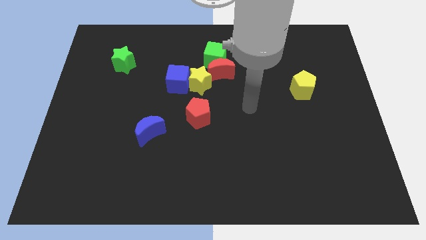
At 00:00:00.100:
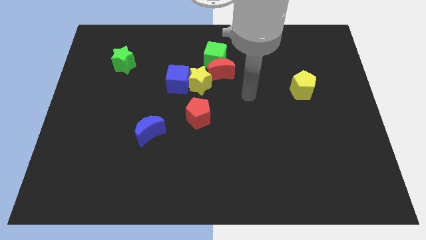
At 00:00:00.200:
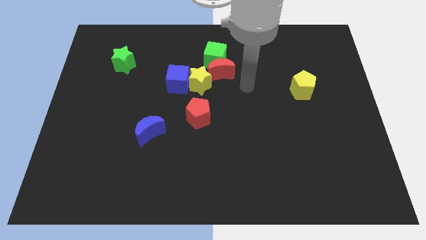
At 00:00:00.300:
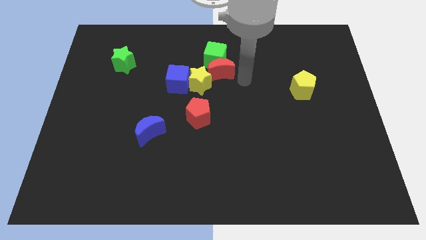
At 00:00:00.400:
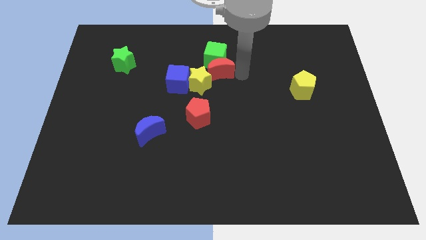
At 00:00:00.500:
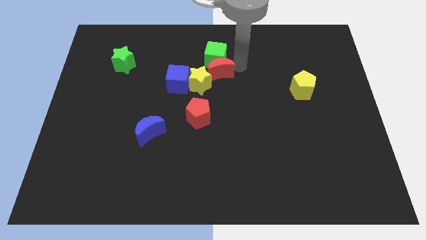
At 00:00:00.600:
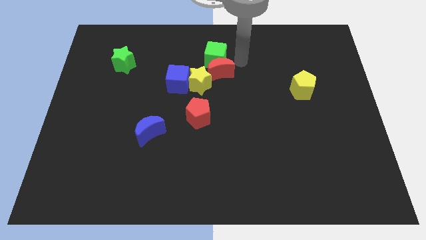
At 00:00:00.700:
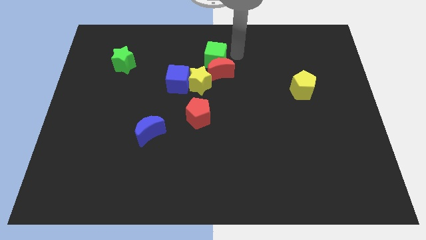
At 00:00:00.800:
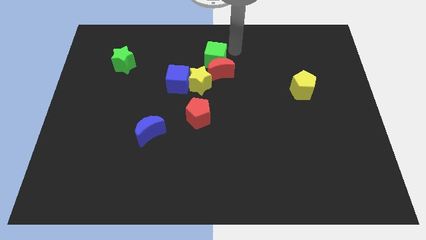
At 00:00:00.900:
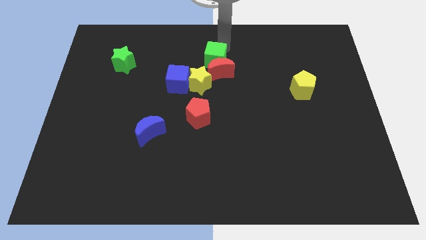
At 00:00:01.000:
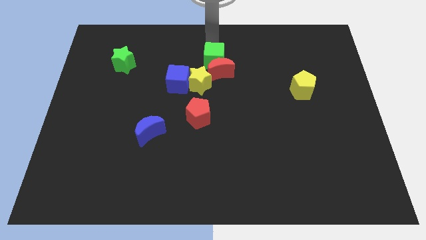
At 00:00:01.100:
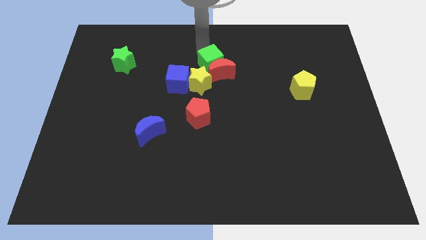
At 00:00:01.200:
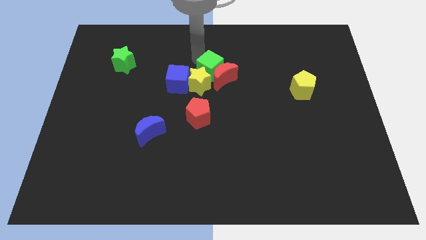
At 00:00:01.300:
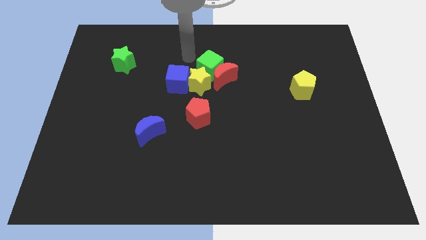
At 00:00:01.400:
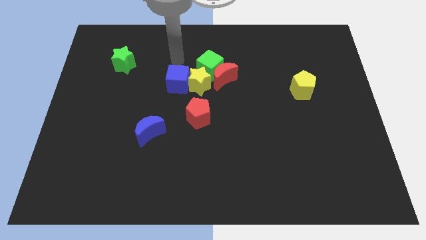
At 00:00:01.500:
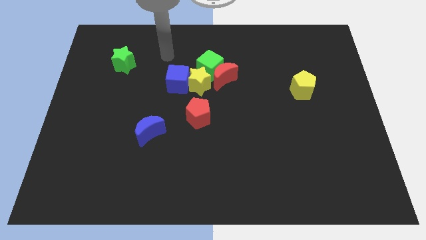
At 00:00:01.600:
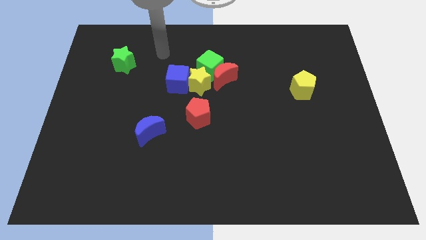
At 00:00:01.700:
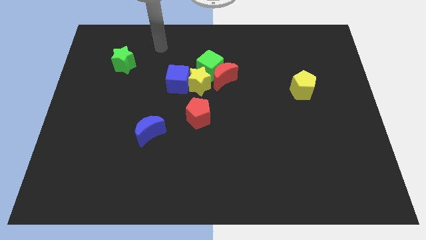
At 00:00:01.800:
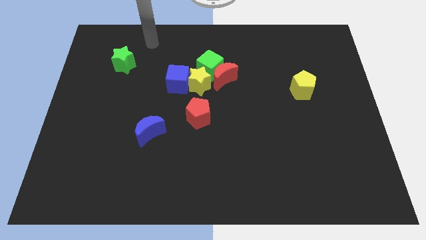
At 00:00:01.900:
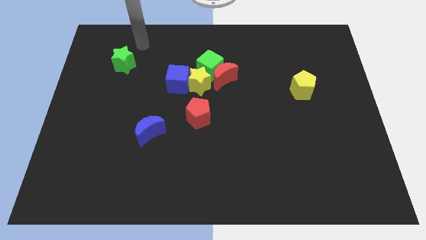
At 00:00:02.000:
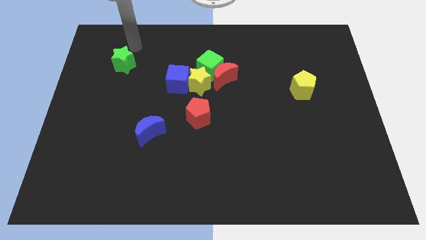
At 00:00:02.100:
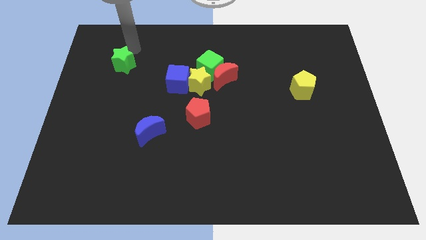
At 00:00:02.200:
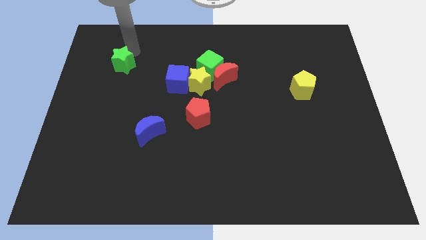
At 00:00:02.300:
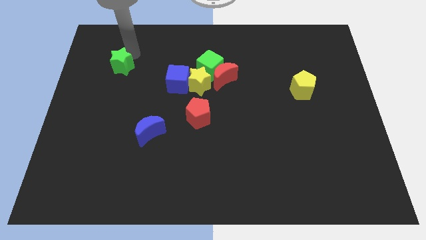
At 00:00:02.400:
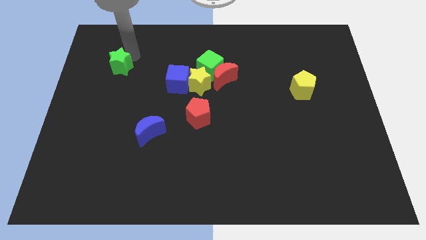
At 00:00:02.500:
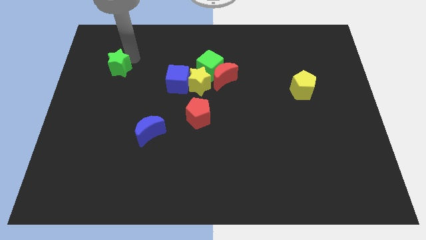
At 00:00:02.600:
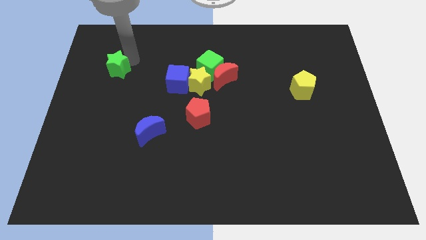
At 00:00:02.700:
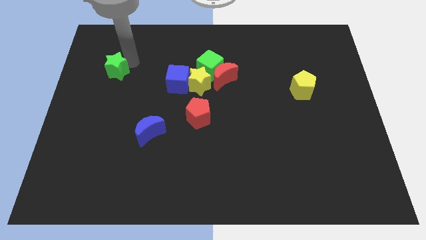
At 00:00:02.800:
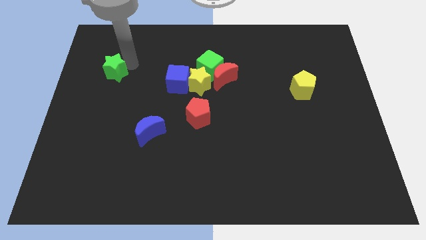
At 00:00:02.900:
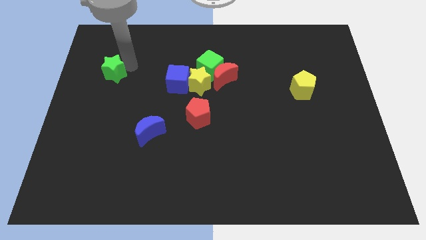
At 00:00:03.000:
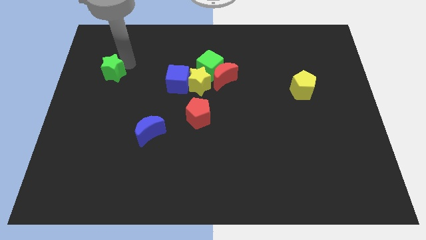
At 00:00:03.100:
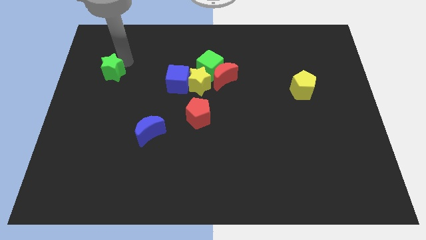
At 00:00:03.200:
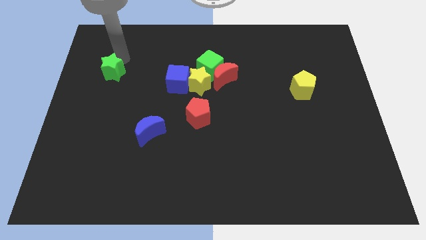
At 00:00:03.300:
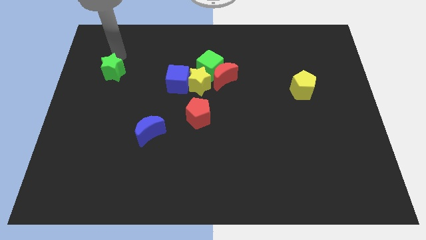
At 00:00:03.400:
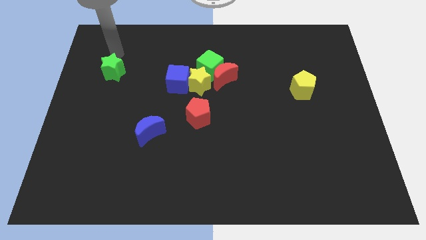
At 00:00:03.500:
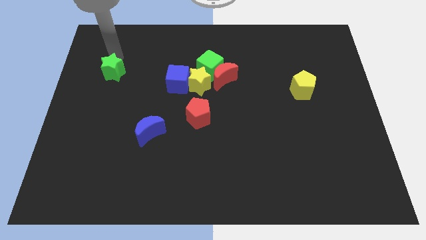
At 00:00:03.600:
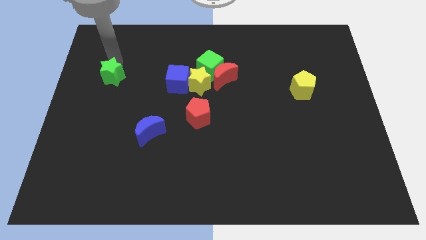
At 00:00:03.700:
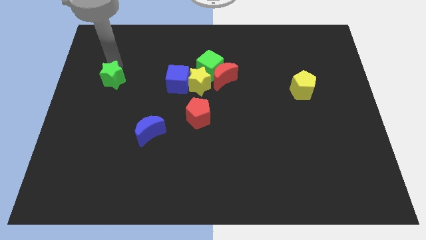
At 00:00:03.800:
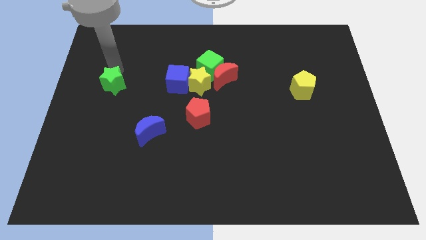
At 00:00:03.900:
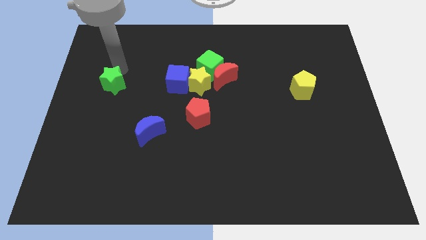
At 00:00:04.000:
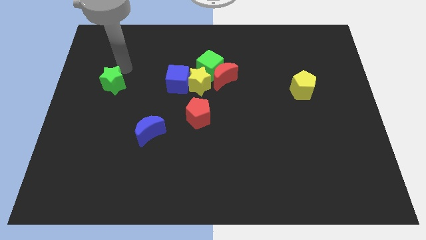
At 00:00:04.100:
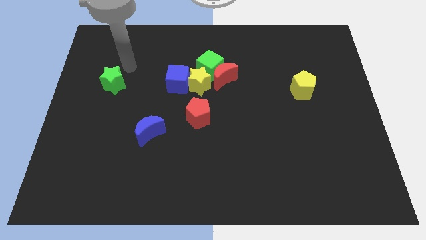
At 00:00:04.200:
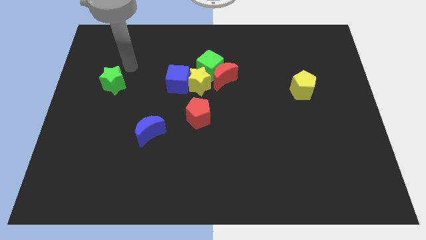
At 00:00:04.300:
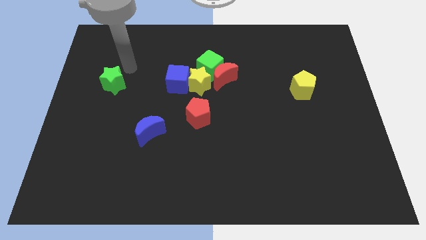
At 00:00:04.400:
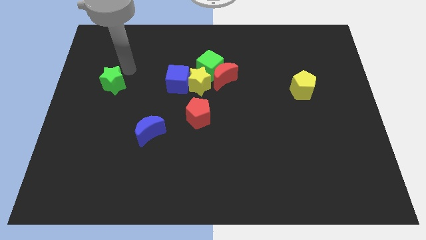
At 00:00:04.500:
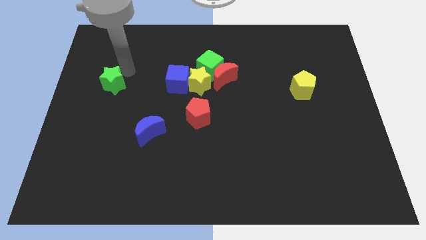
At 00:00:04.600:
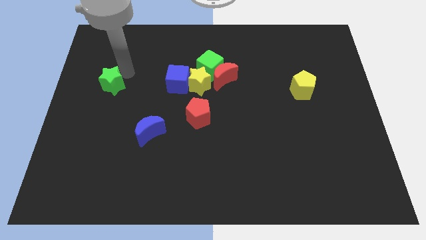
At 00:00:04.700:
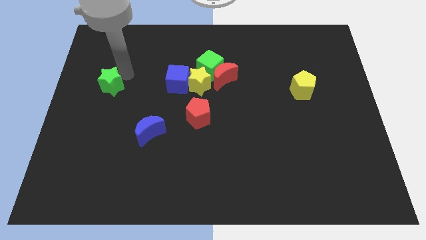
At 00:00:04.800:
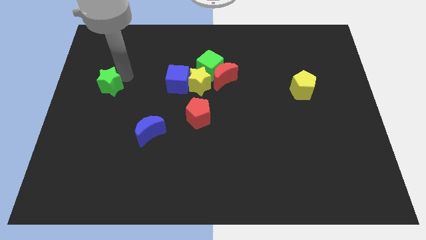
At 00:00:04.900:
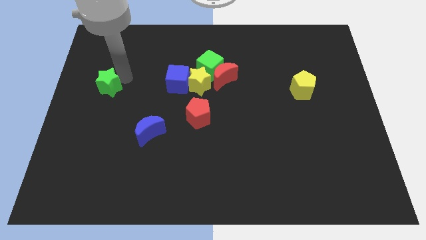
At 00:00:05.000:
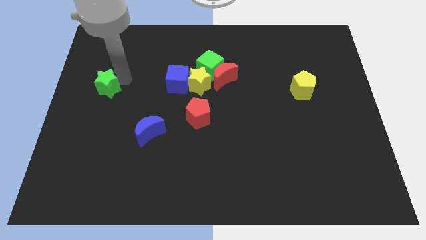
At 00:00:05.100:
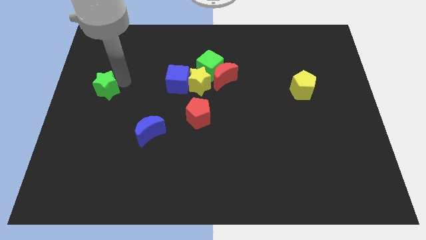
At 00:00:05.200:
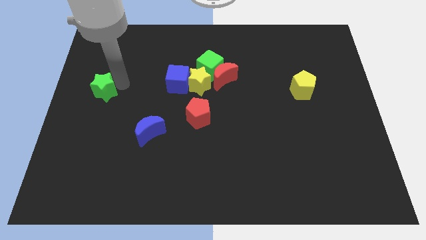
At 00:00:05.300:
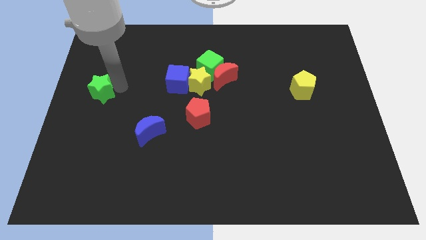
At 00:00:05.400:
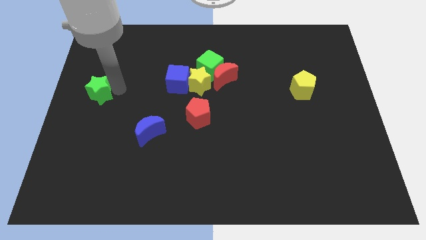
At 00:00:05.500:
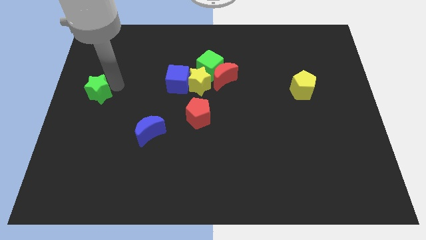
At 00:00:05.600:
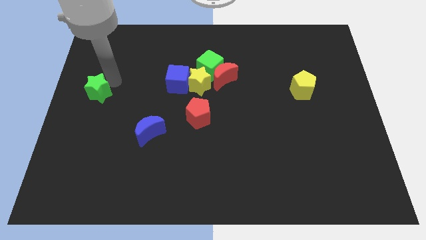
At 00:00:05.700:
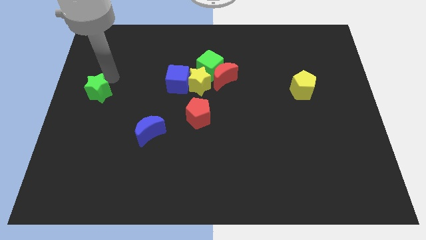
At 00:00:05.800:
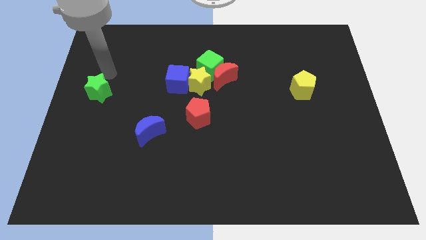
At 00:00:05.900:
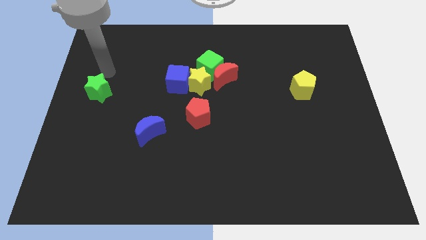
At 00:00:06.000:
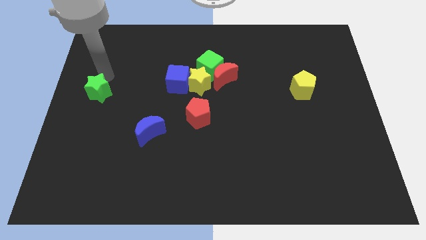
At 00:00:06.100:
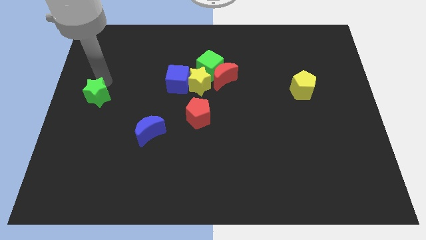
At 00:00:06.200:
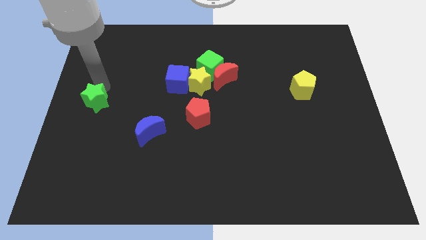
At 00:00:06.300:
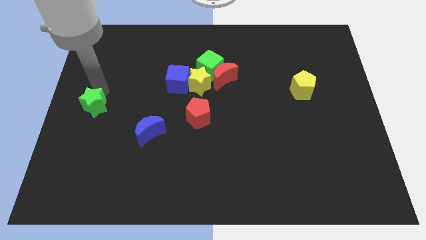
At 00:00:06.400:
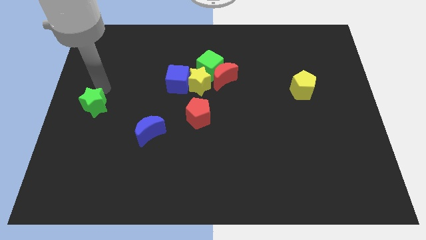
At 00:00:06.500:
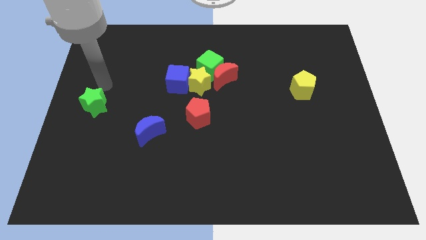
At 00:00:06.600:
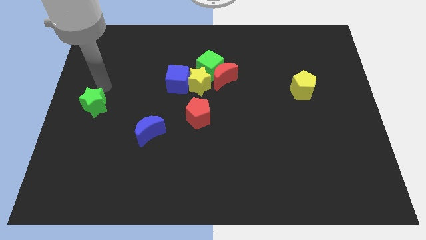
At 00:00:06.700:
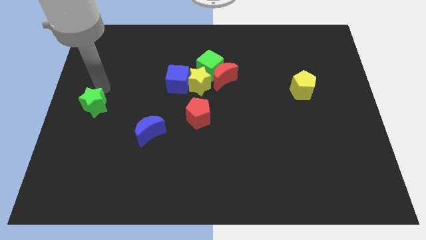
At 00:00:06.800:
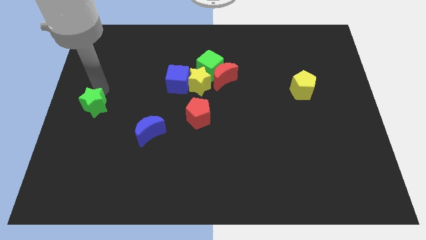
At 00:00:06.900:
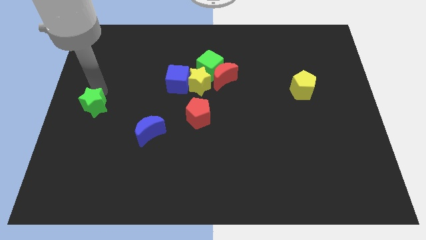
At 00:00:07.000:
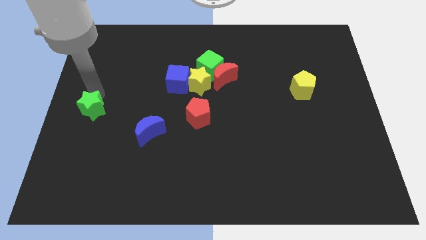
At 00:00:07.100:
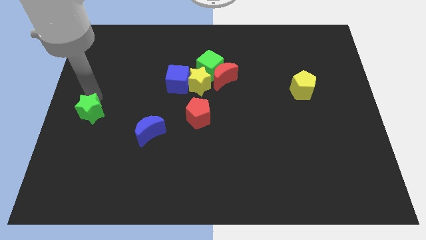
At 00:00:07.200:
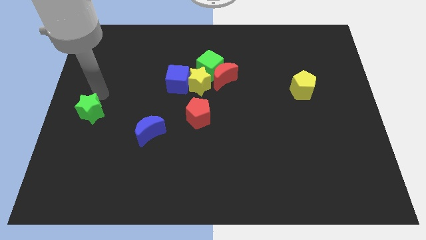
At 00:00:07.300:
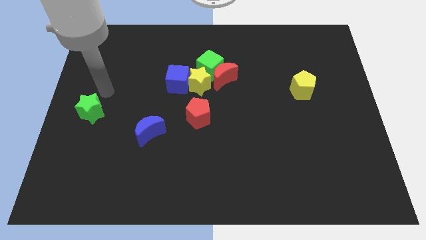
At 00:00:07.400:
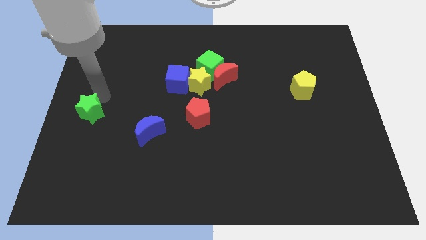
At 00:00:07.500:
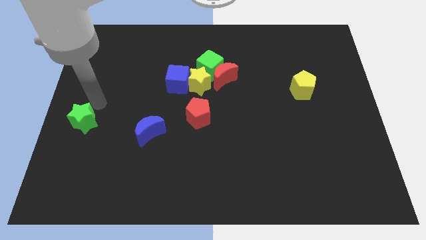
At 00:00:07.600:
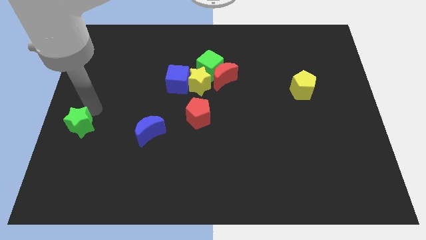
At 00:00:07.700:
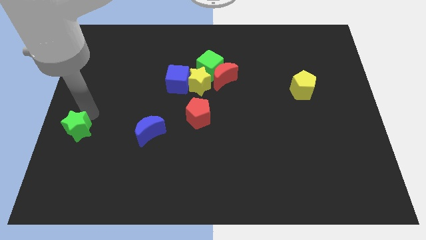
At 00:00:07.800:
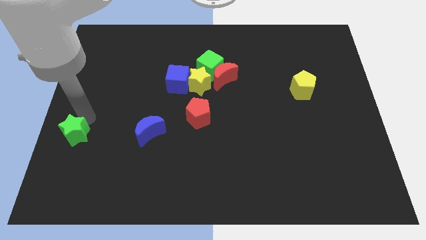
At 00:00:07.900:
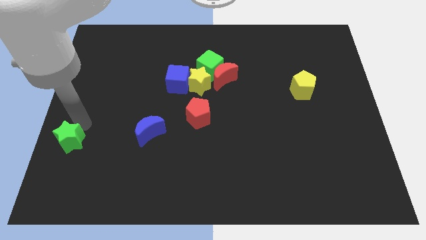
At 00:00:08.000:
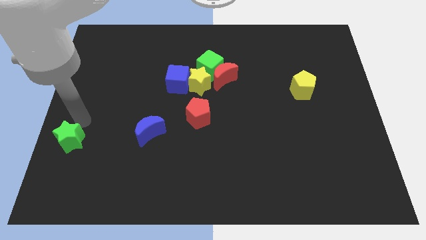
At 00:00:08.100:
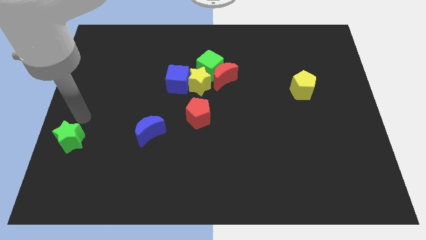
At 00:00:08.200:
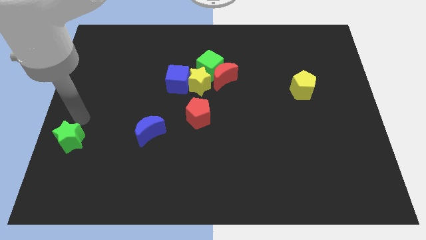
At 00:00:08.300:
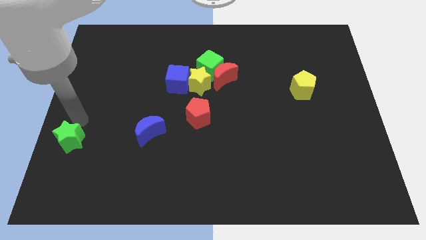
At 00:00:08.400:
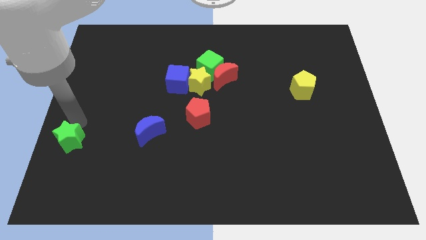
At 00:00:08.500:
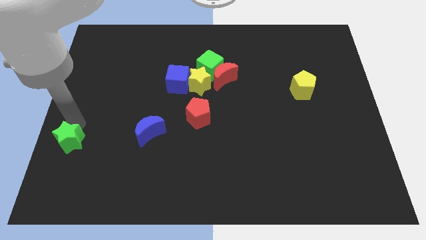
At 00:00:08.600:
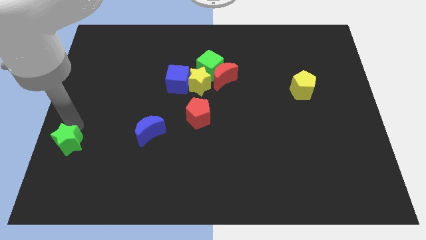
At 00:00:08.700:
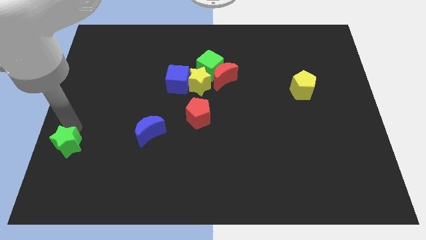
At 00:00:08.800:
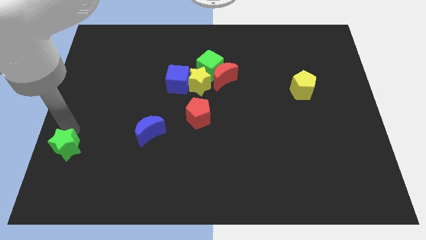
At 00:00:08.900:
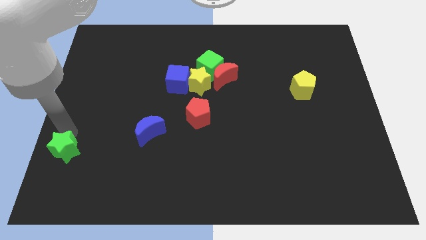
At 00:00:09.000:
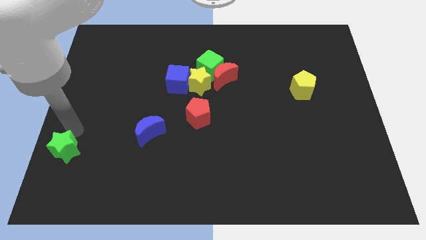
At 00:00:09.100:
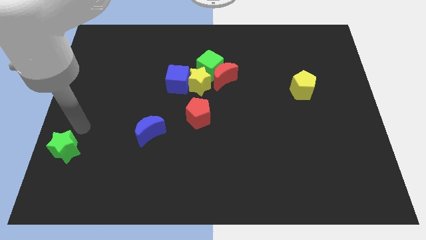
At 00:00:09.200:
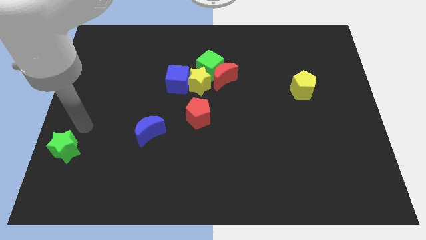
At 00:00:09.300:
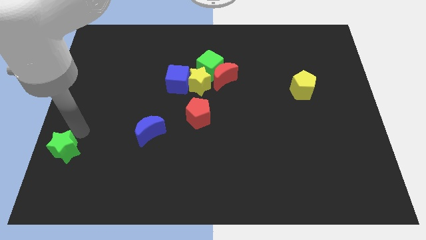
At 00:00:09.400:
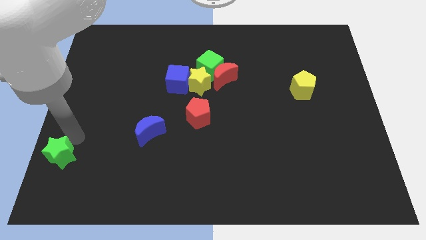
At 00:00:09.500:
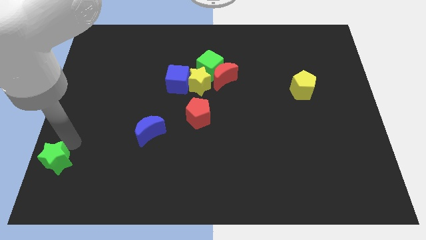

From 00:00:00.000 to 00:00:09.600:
put the green star to the bottom left corner
